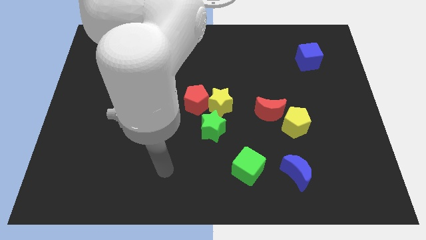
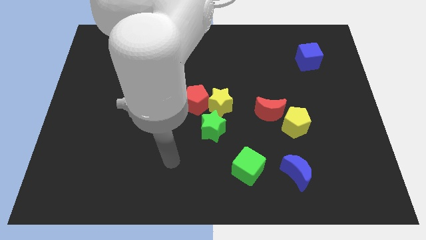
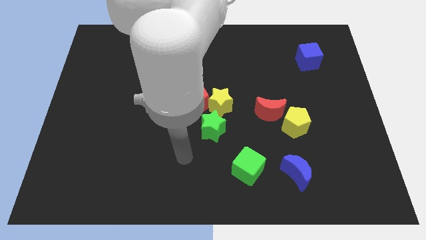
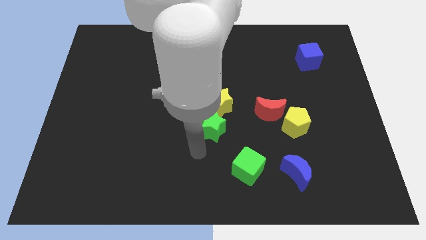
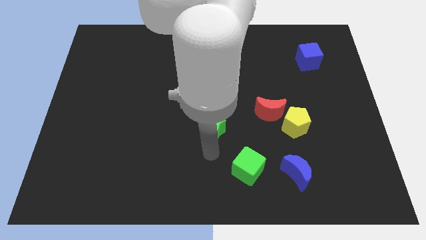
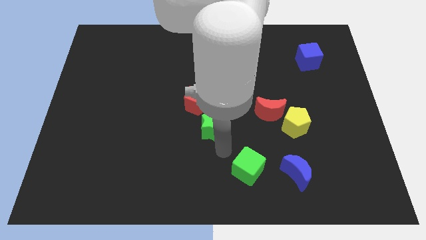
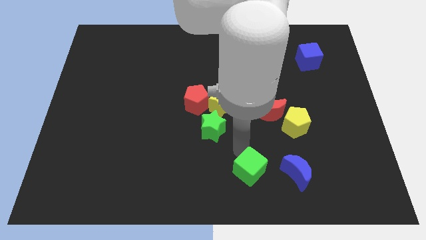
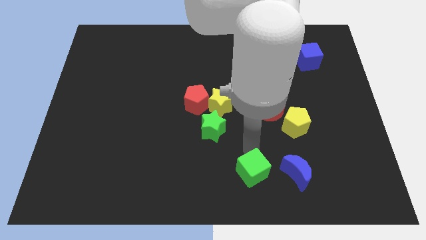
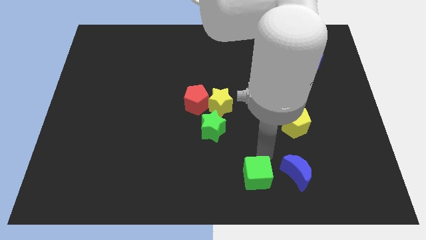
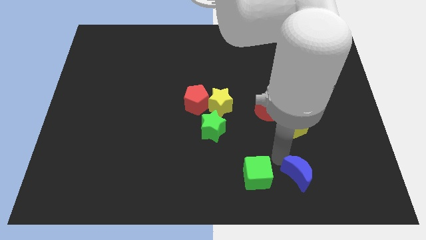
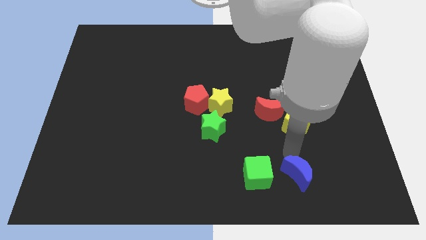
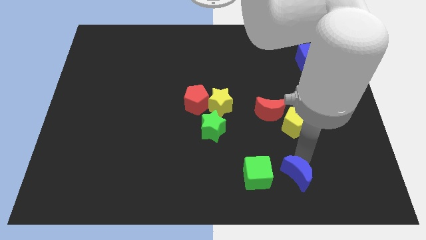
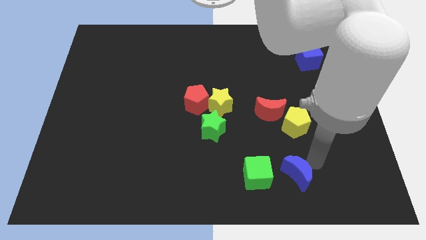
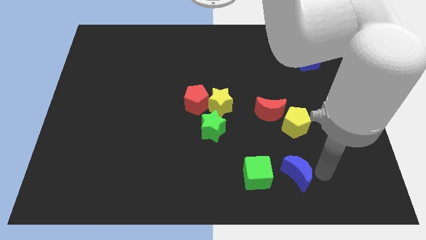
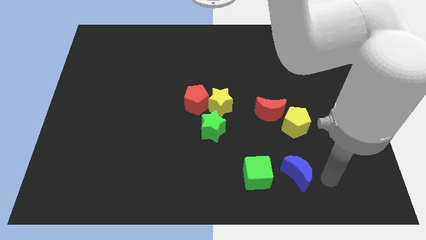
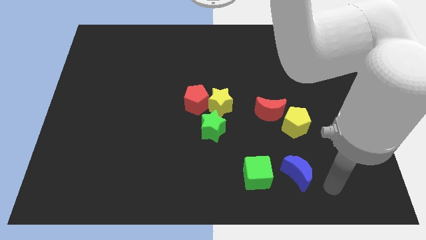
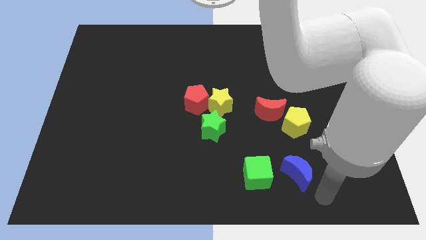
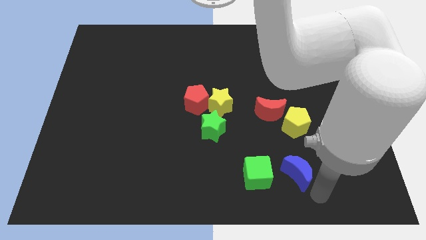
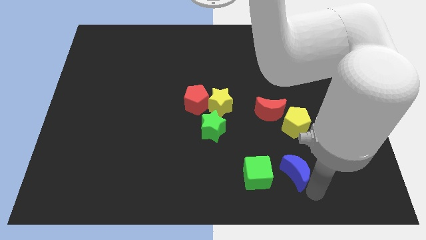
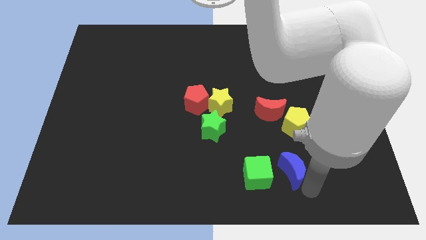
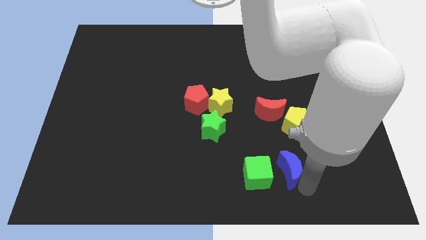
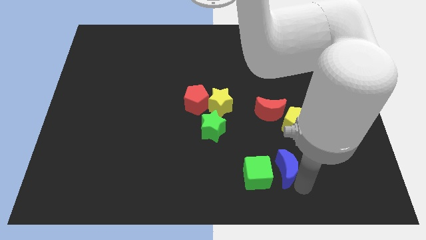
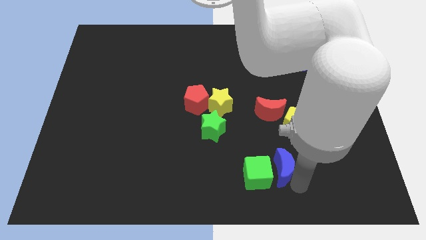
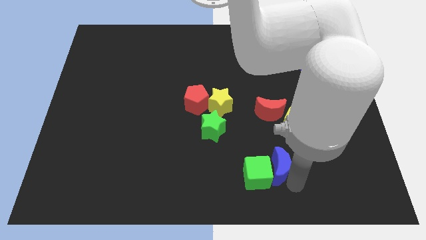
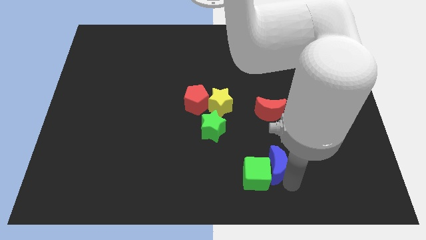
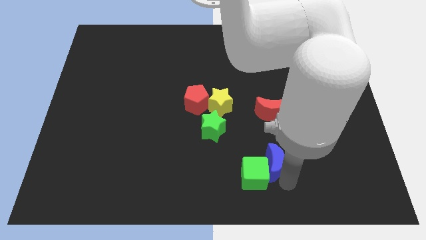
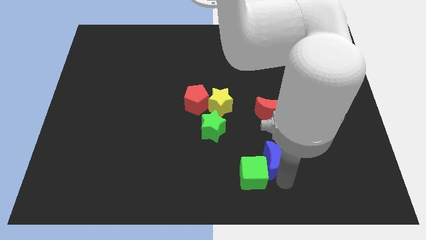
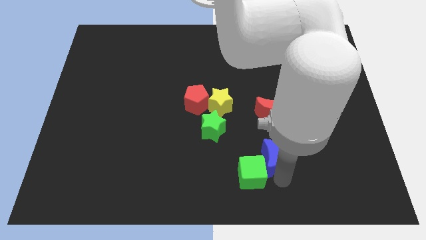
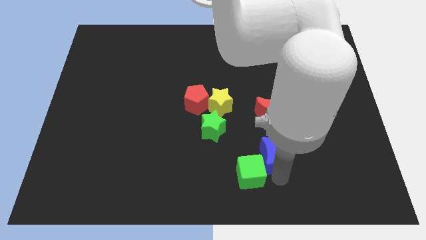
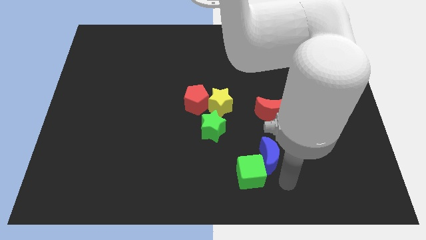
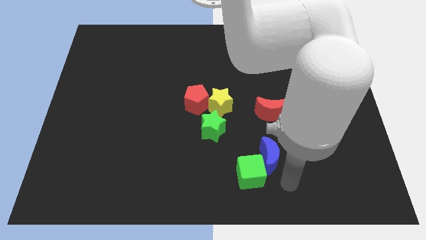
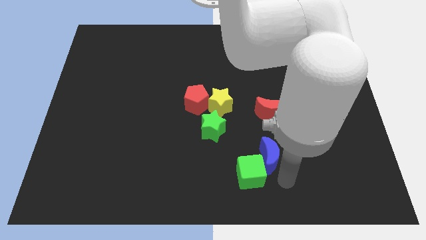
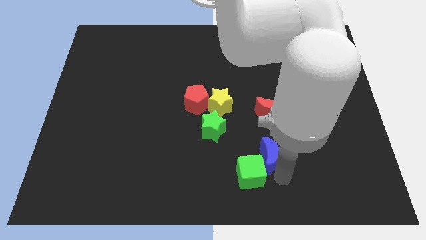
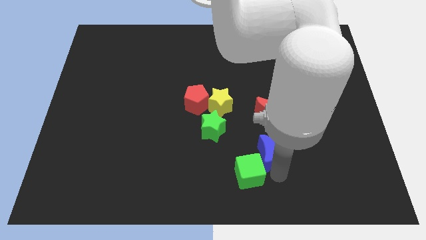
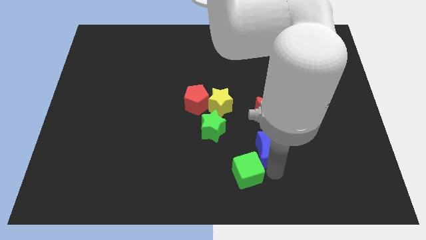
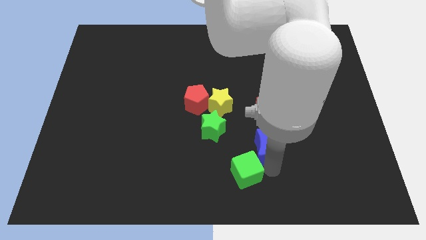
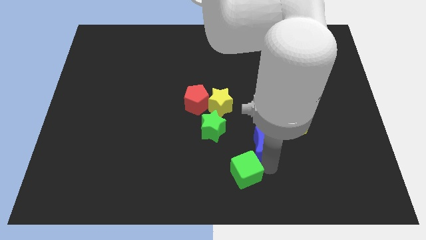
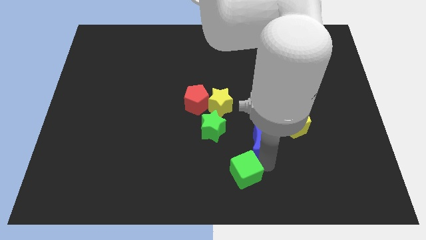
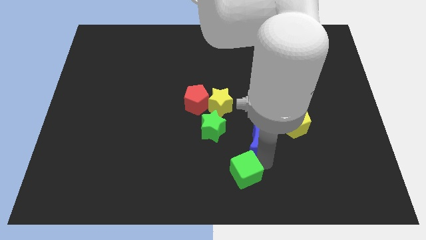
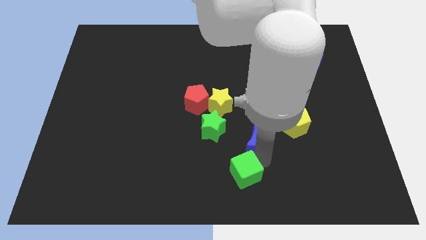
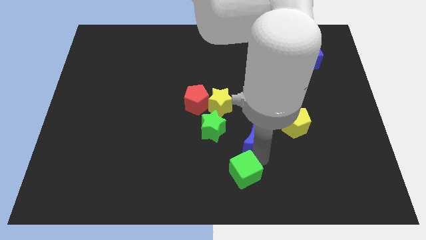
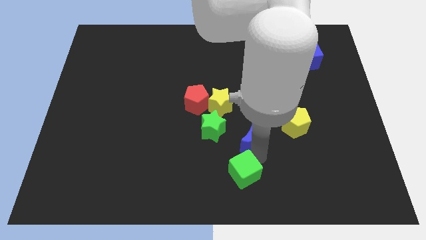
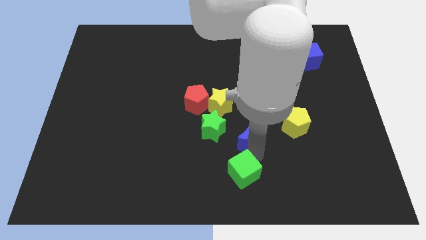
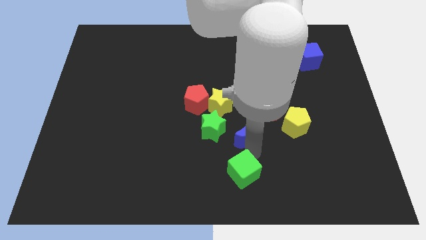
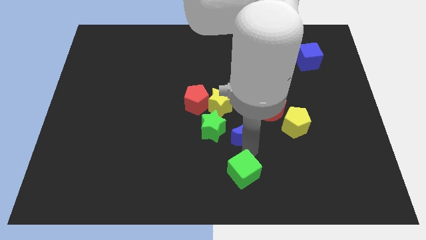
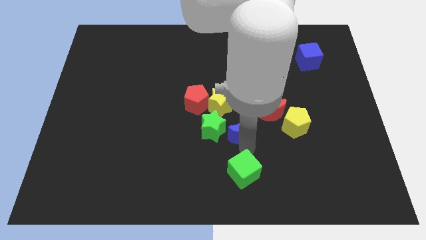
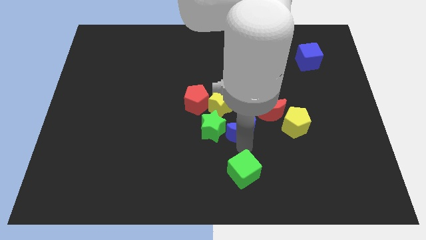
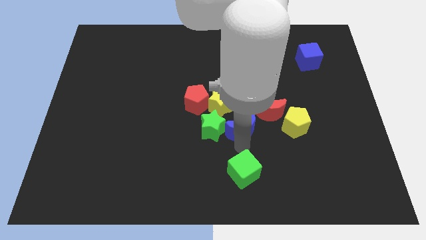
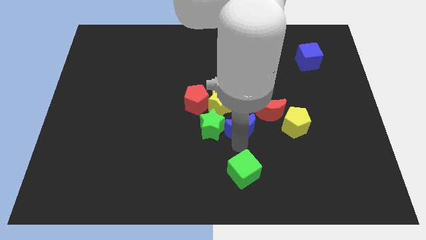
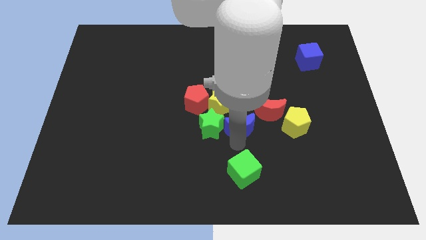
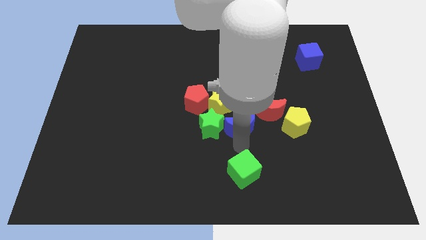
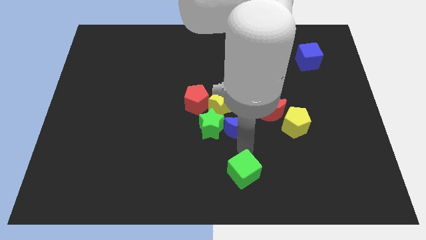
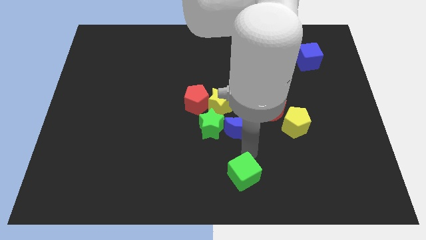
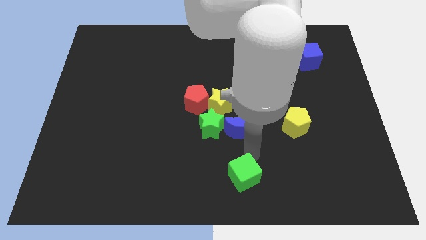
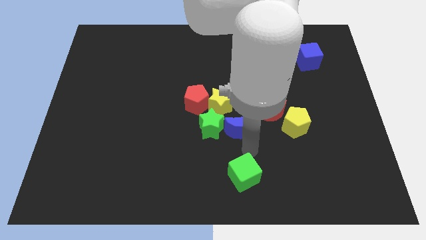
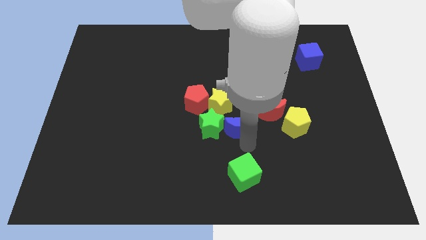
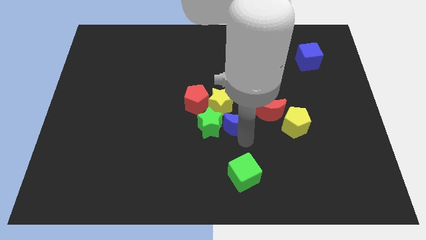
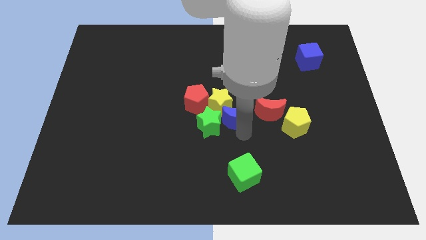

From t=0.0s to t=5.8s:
put the blue moon to the yellow star

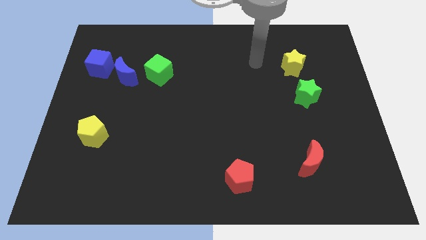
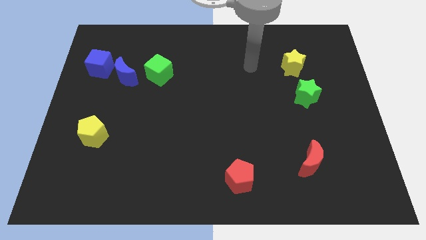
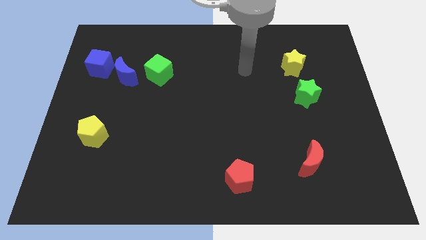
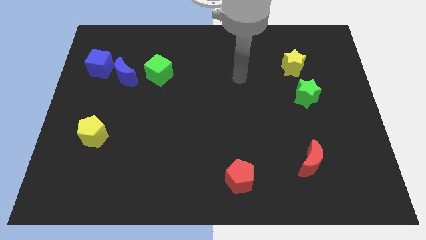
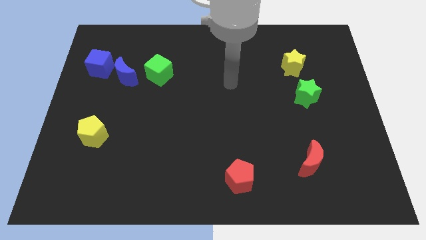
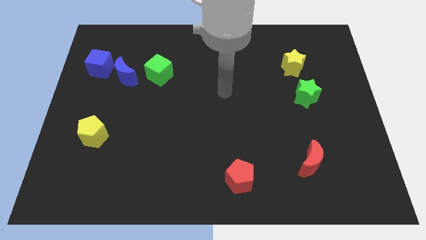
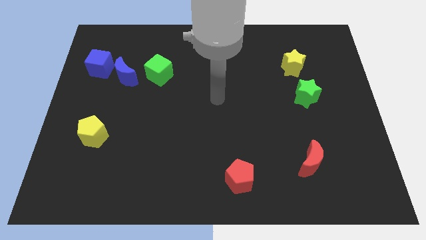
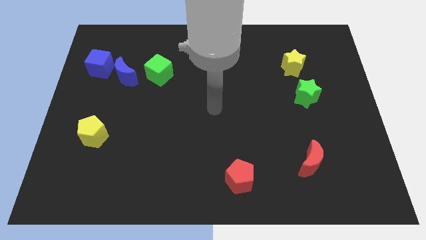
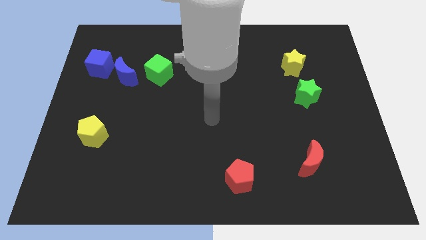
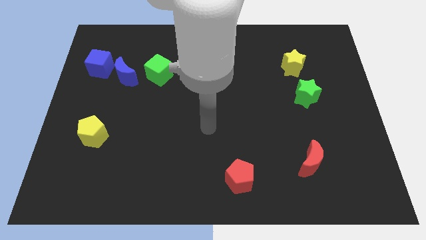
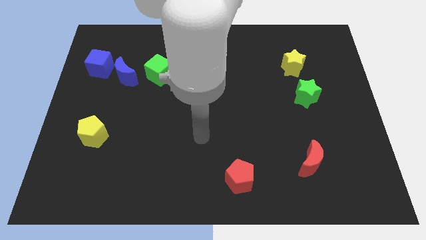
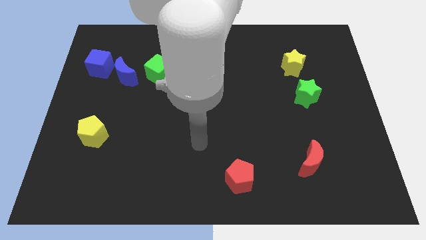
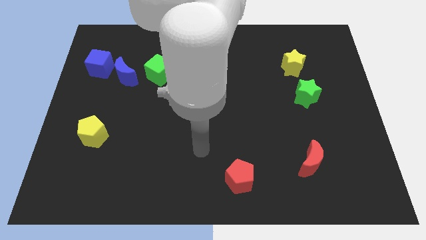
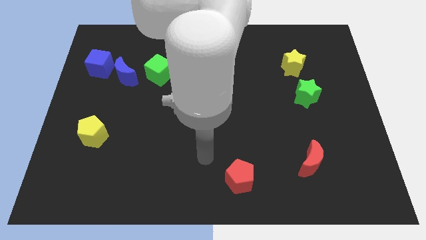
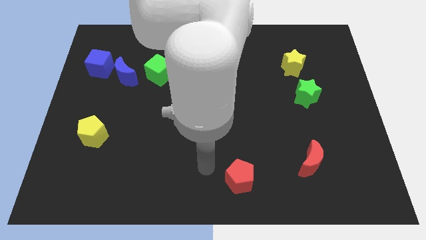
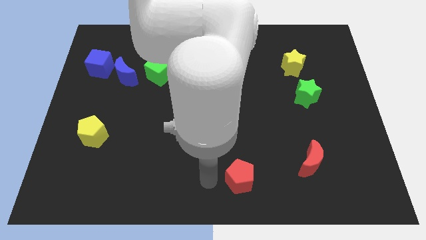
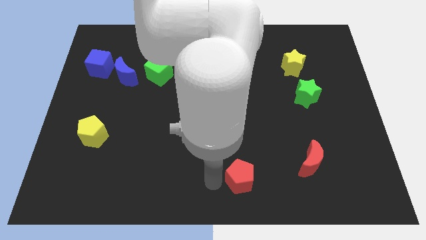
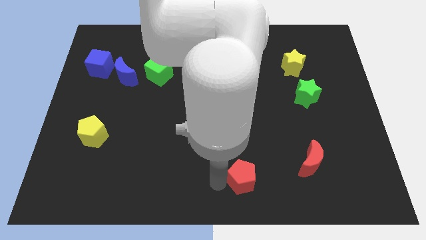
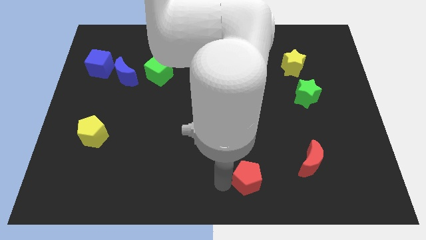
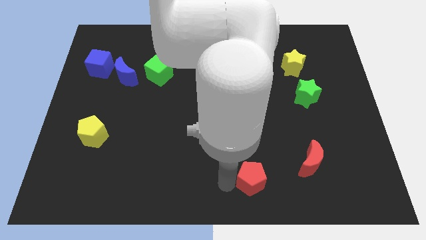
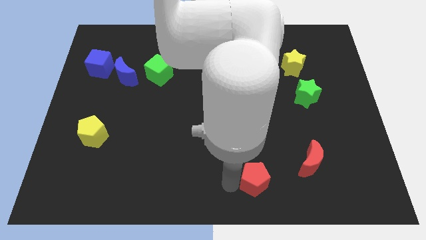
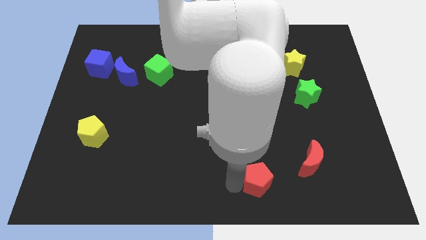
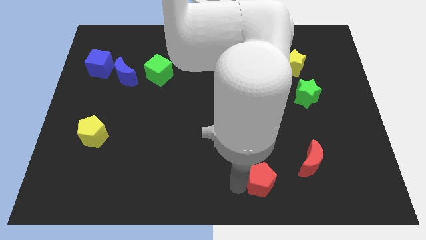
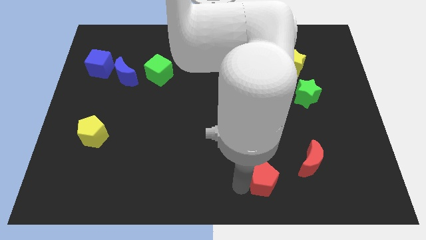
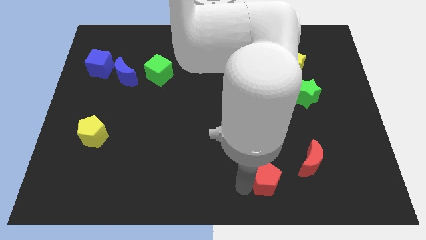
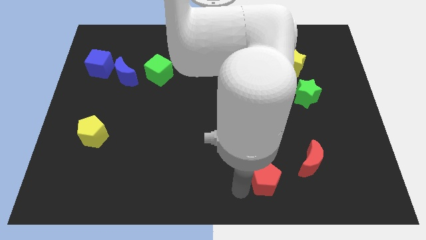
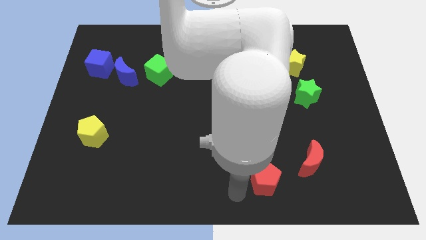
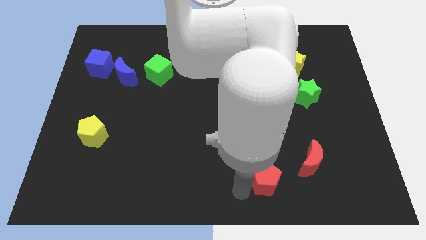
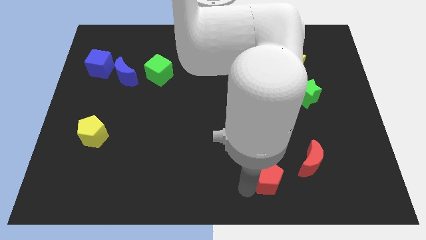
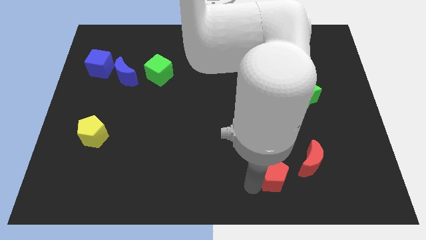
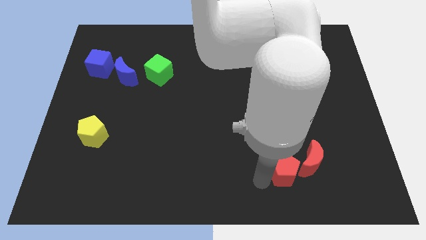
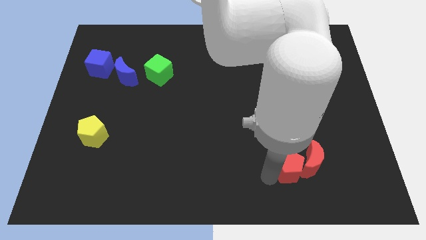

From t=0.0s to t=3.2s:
push the red pentagon next to the red moon
